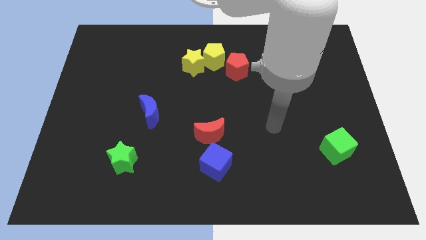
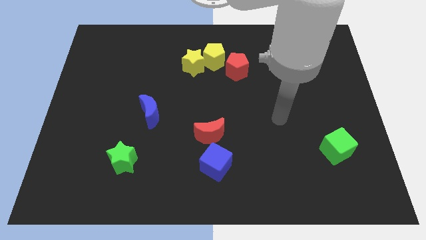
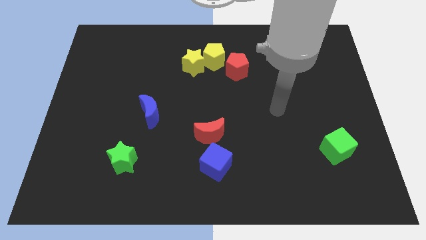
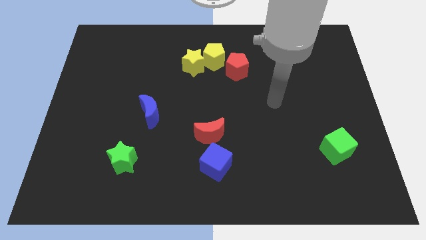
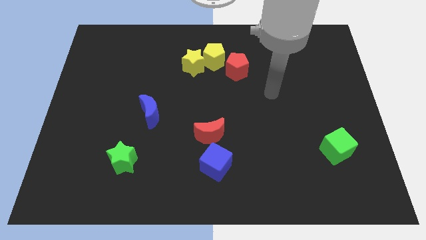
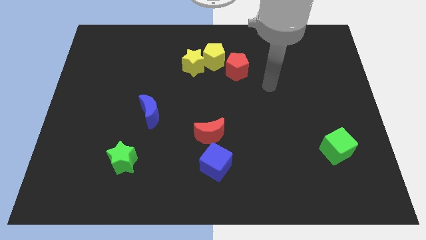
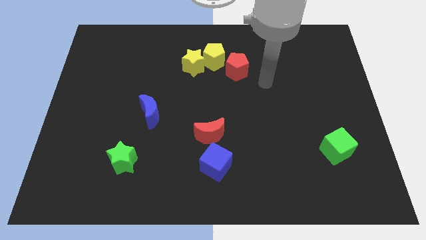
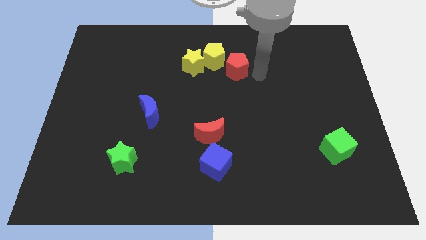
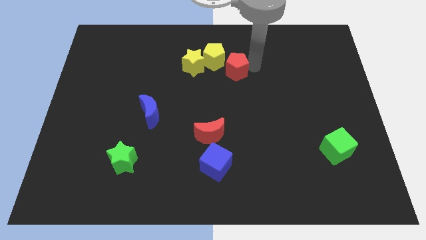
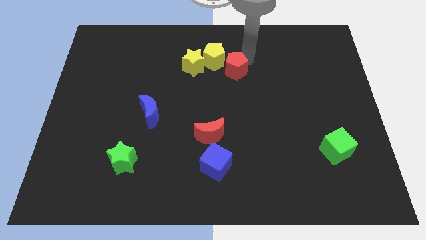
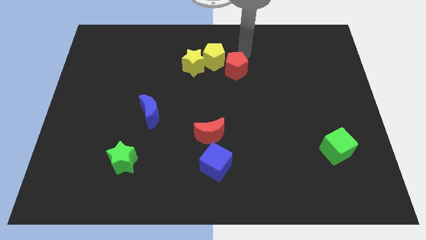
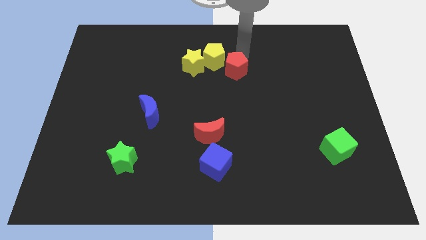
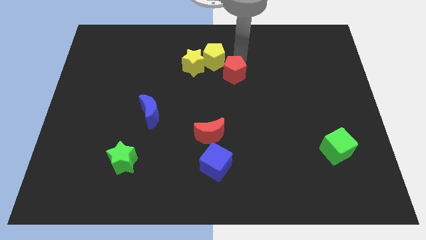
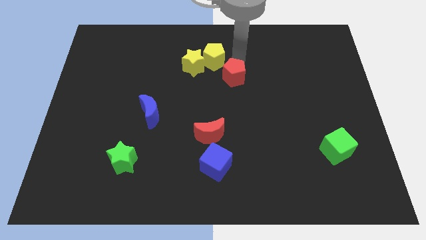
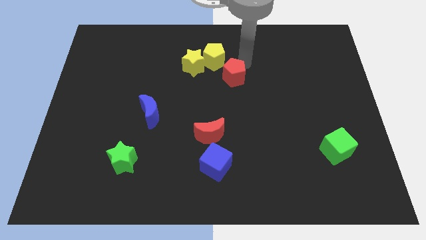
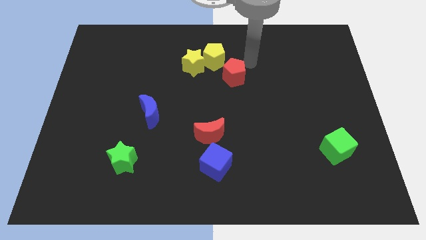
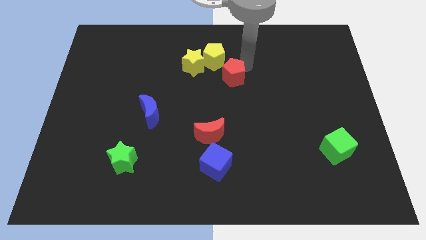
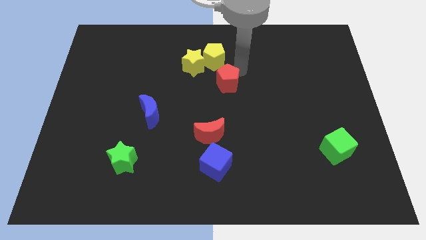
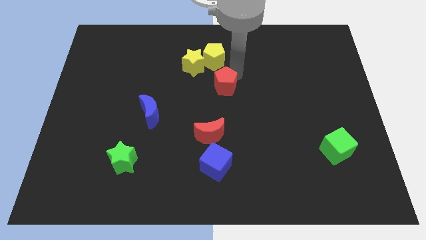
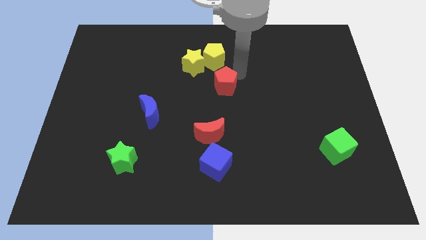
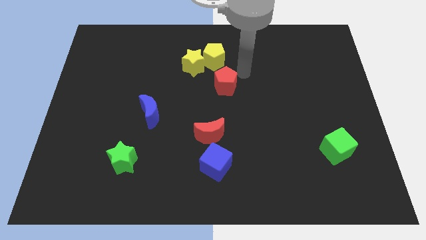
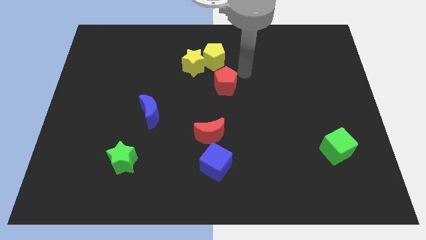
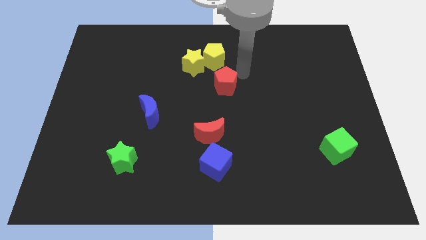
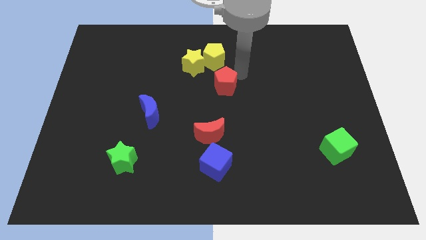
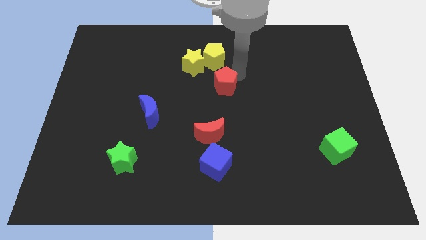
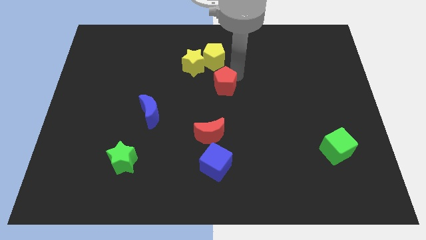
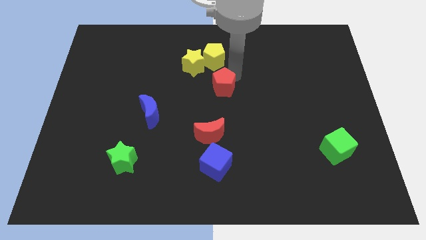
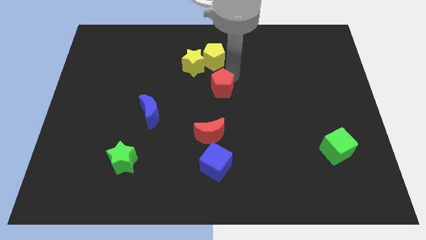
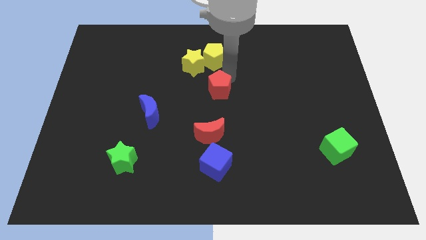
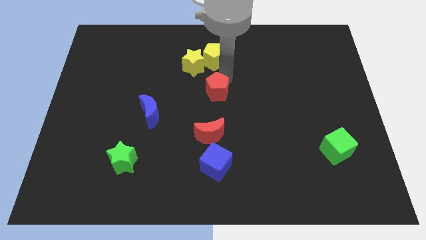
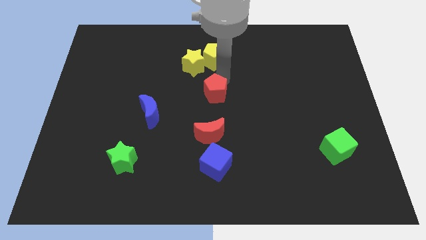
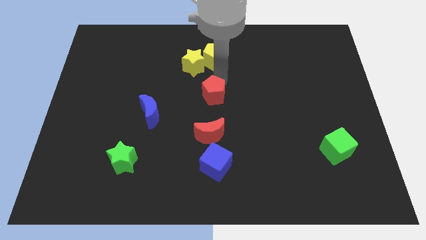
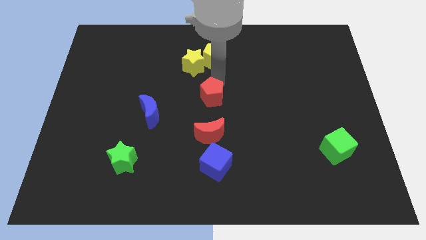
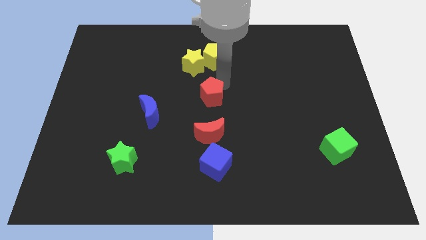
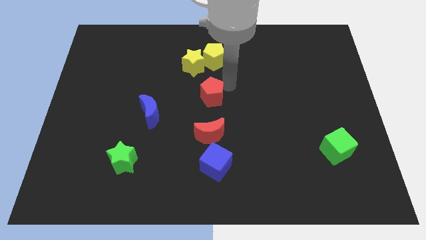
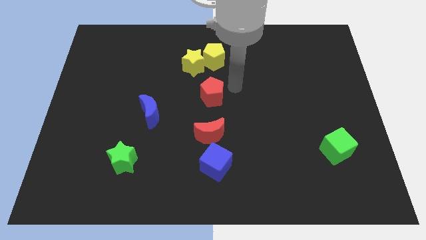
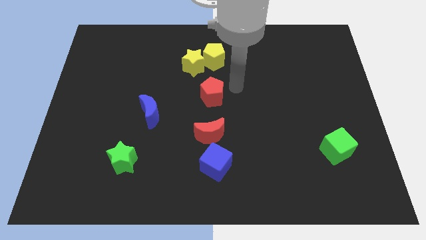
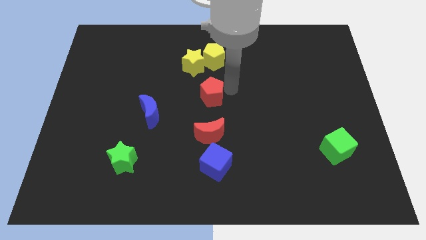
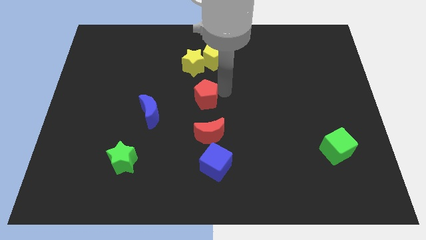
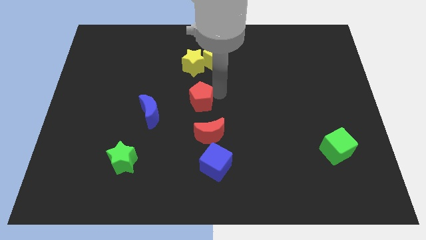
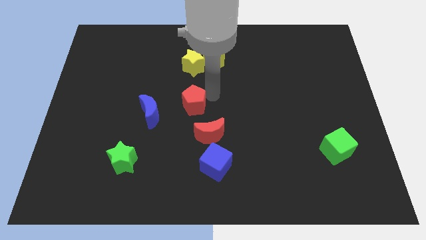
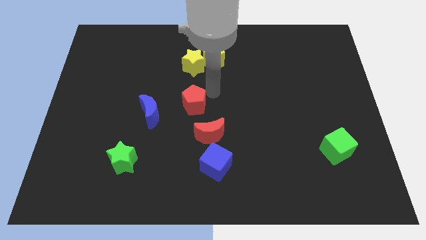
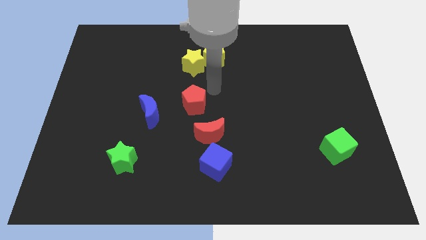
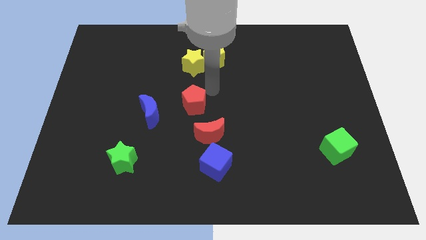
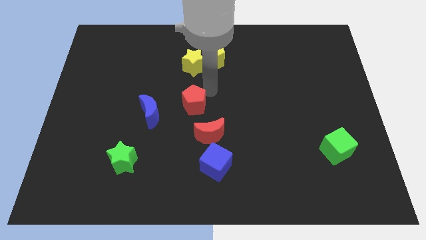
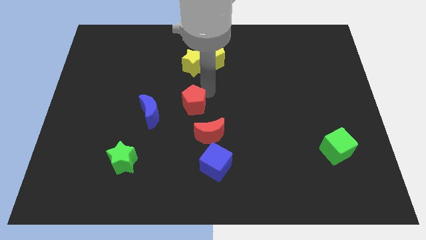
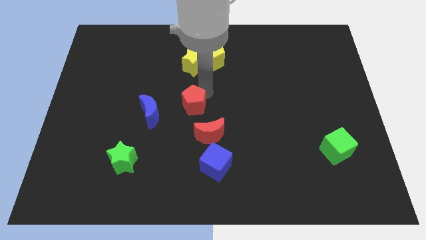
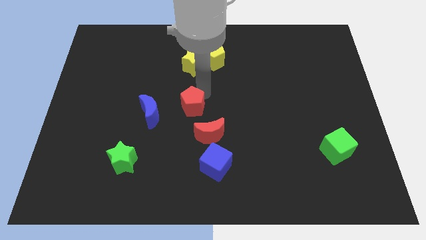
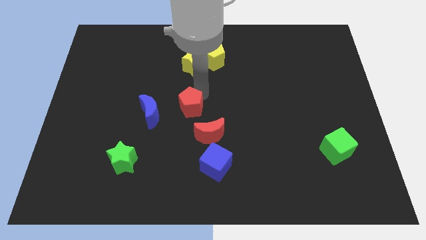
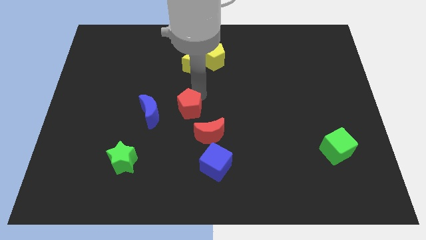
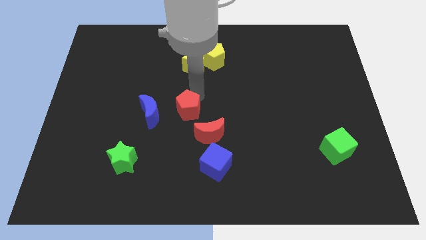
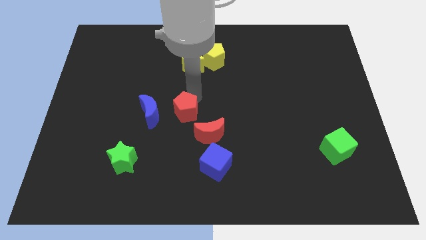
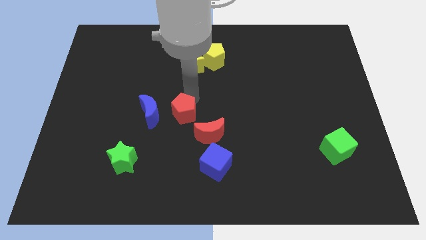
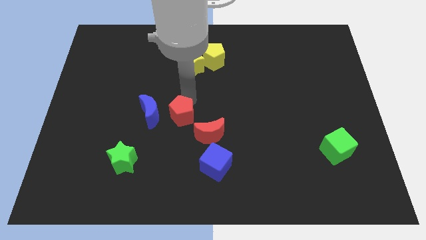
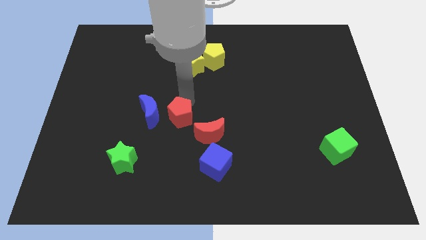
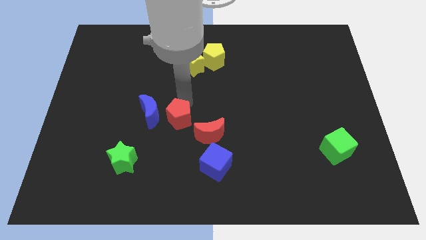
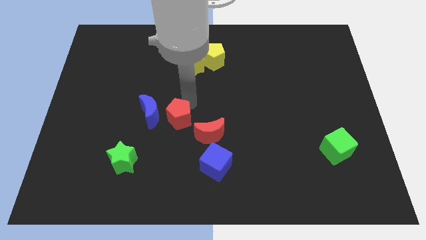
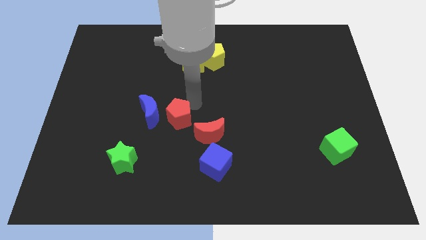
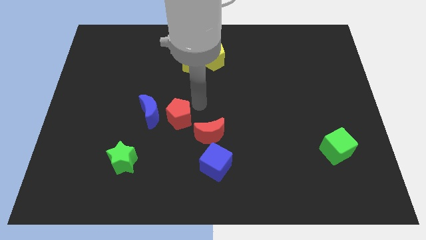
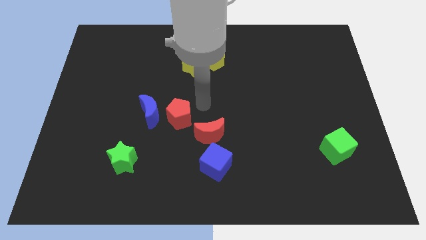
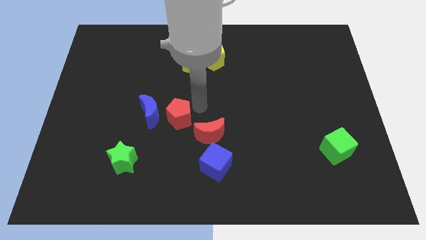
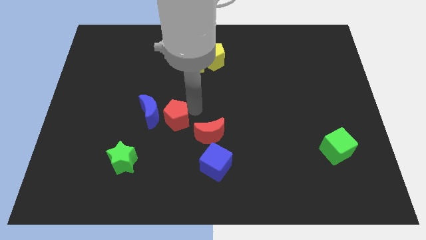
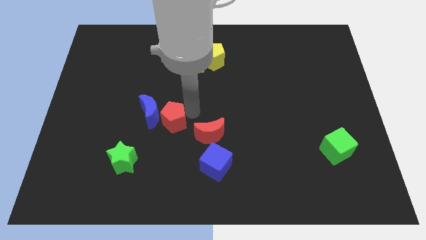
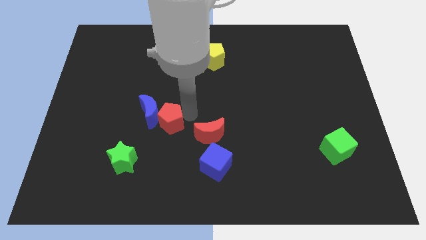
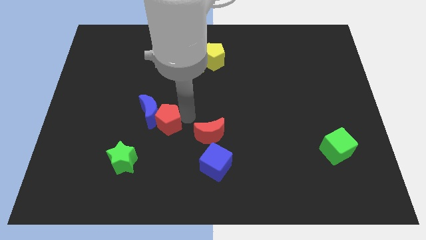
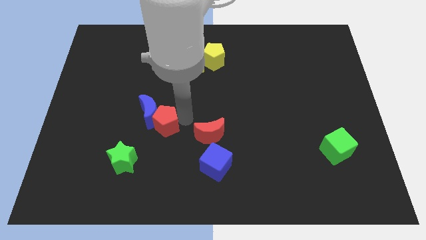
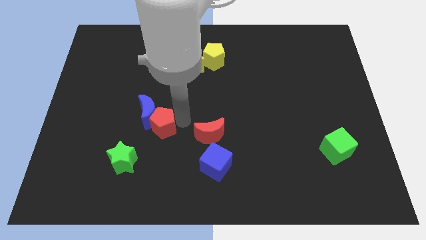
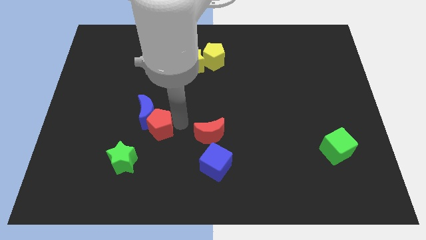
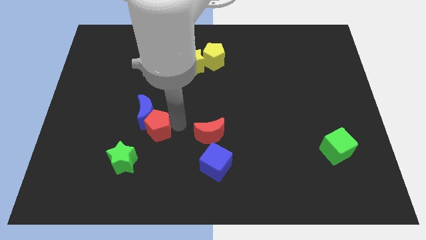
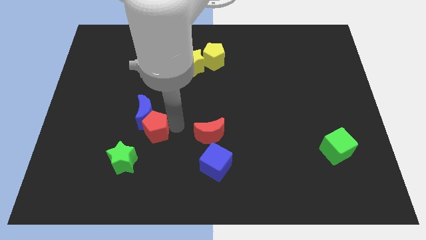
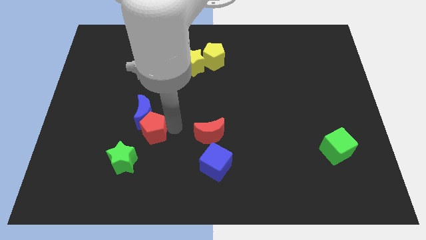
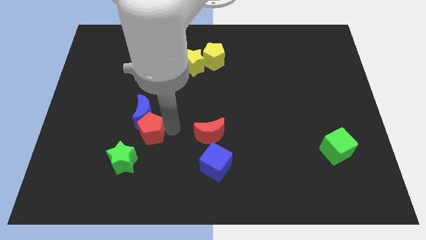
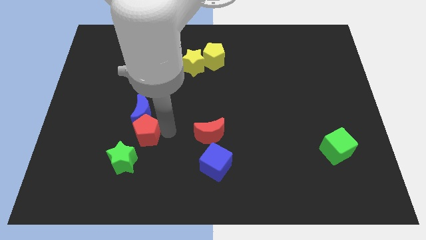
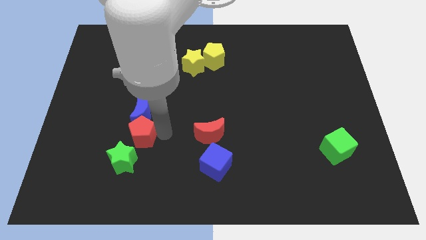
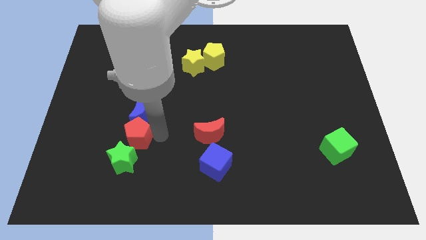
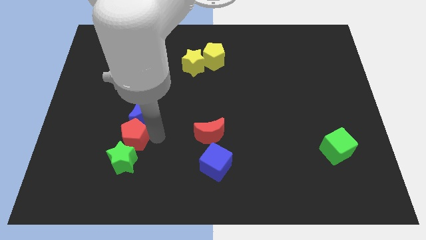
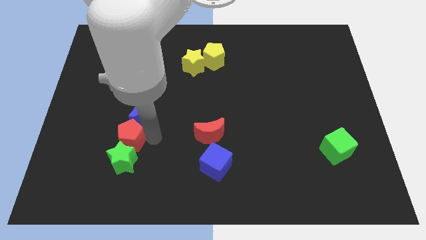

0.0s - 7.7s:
move the red pentagon to the top left side of the green star
